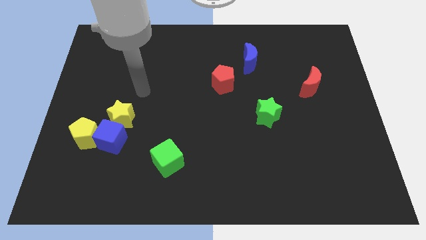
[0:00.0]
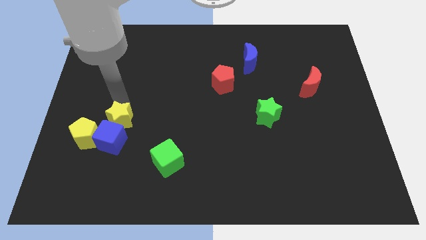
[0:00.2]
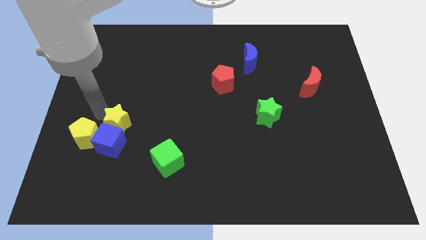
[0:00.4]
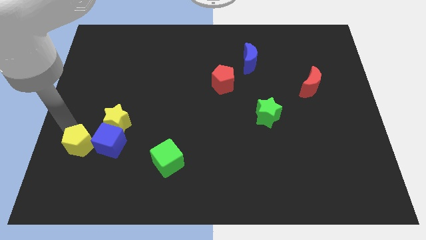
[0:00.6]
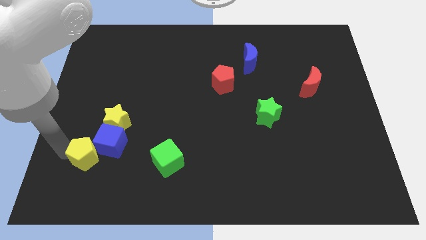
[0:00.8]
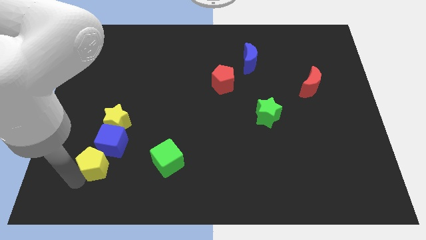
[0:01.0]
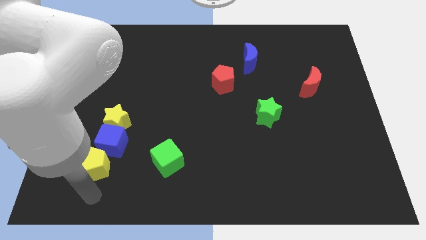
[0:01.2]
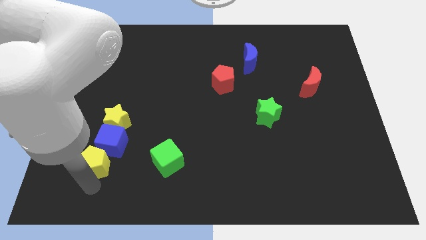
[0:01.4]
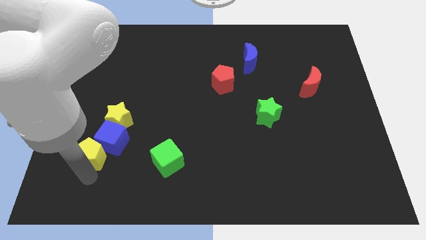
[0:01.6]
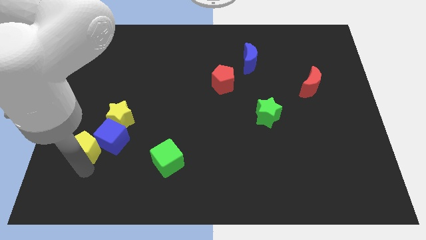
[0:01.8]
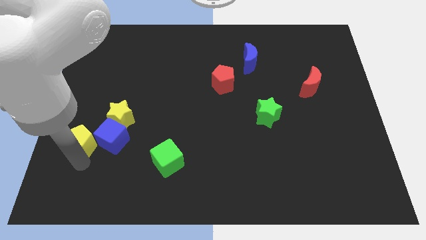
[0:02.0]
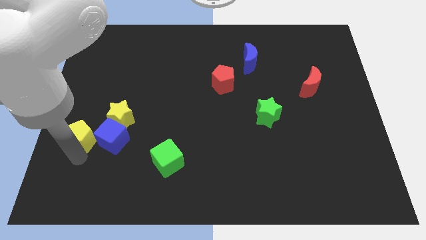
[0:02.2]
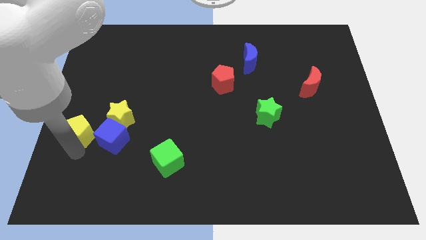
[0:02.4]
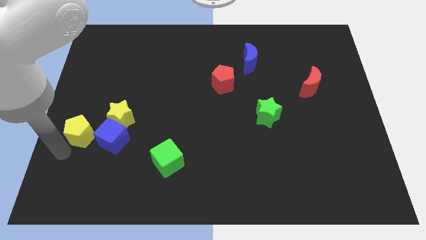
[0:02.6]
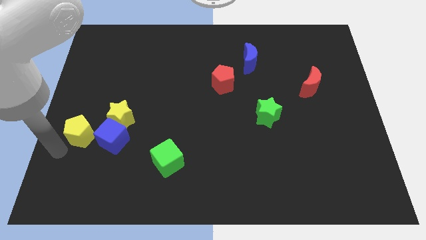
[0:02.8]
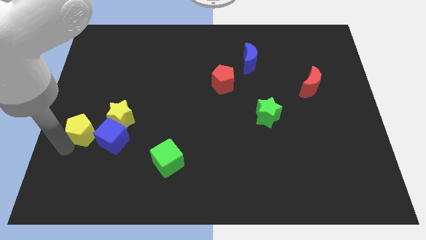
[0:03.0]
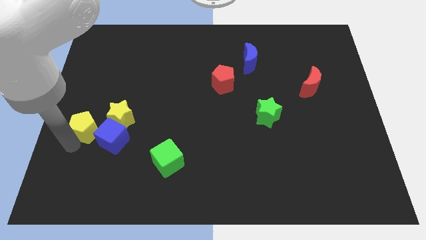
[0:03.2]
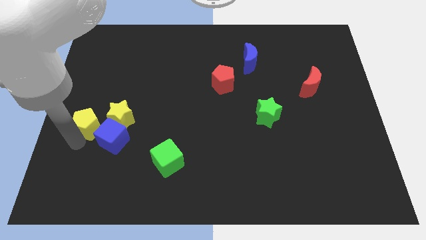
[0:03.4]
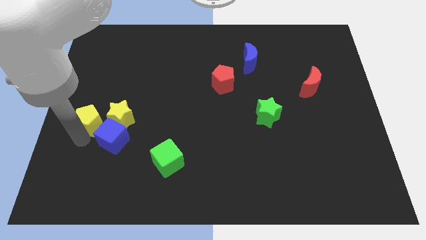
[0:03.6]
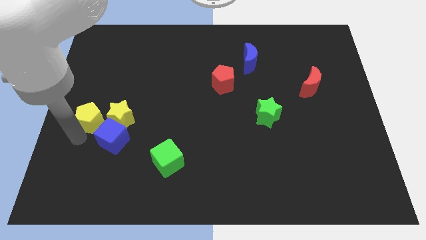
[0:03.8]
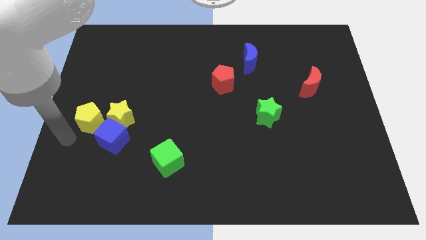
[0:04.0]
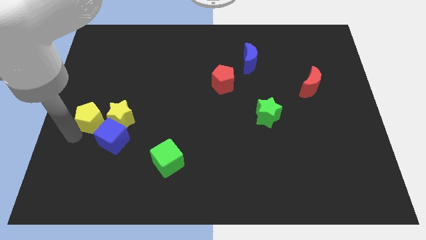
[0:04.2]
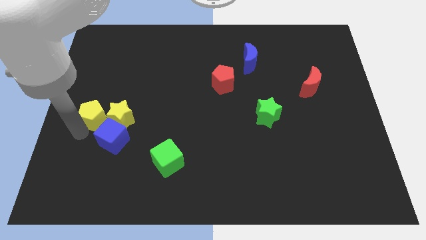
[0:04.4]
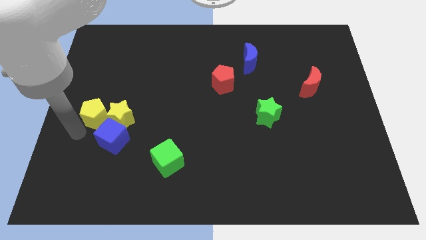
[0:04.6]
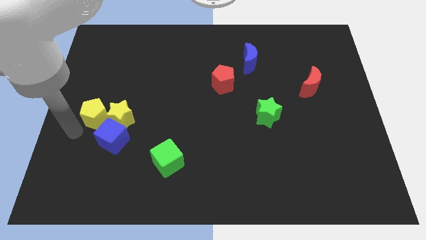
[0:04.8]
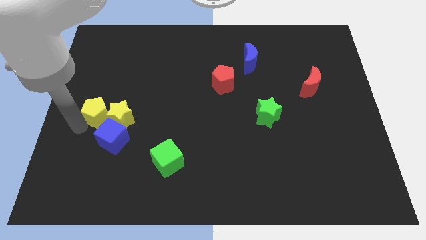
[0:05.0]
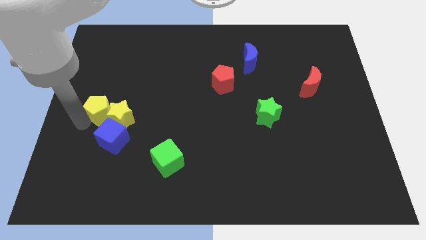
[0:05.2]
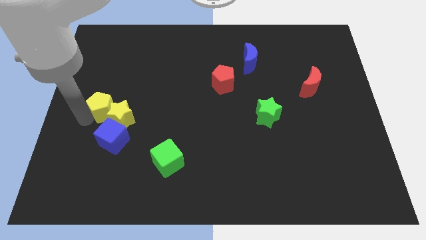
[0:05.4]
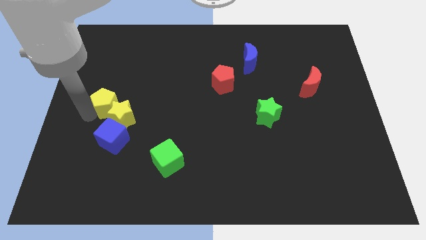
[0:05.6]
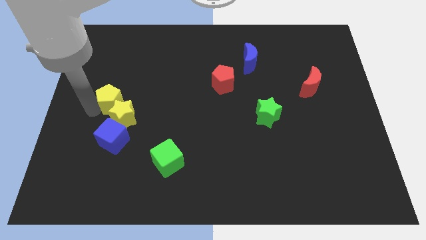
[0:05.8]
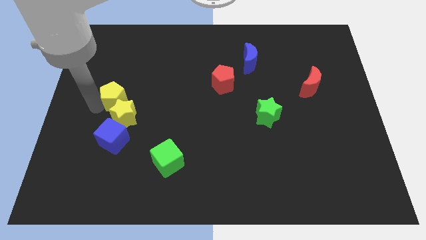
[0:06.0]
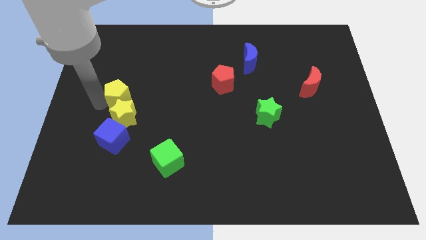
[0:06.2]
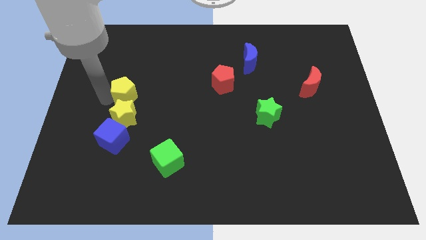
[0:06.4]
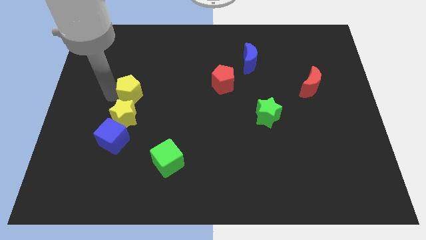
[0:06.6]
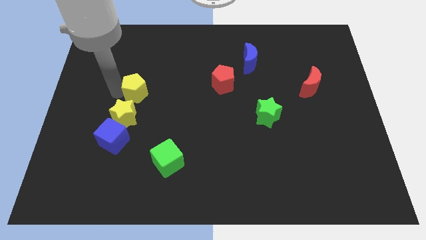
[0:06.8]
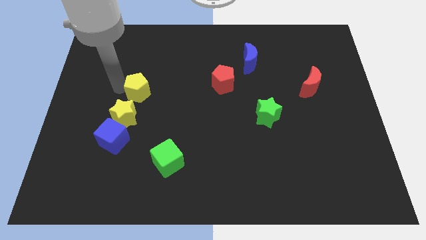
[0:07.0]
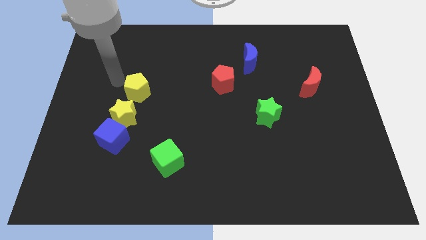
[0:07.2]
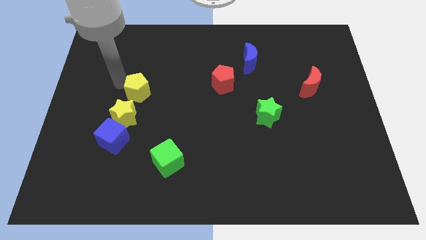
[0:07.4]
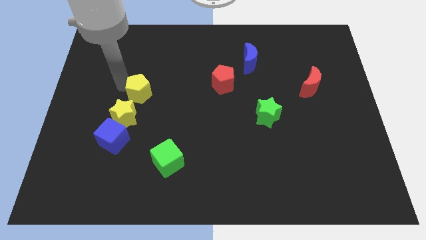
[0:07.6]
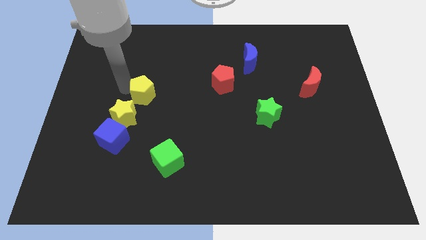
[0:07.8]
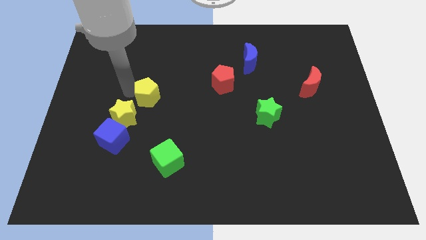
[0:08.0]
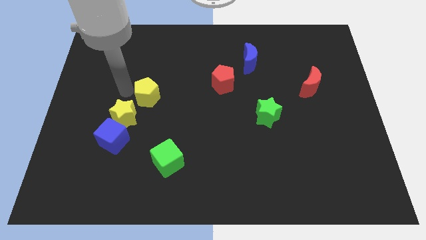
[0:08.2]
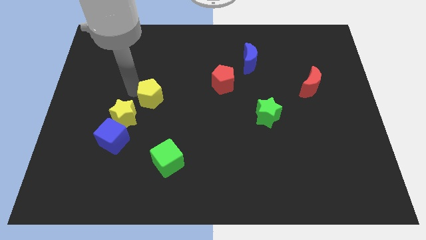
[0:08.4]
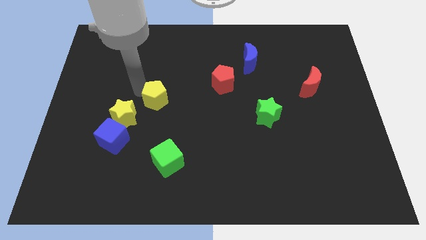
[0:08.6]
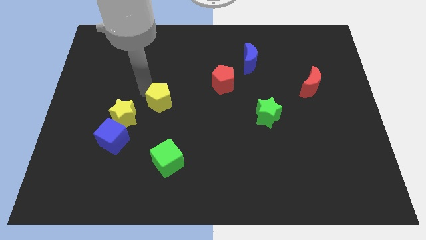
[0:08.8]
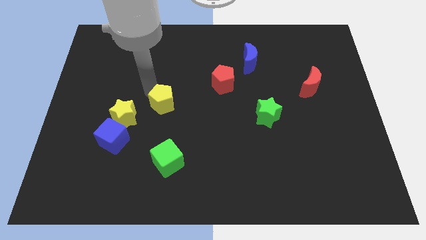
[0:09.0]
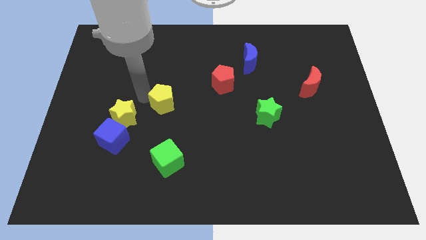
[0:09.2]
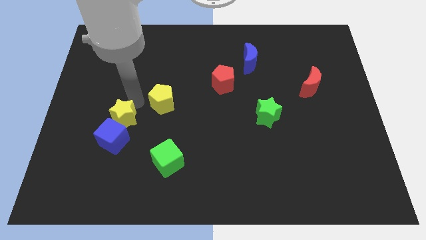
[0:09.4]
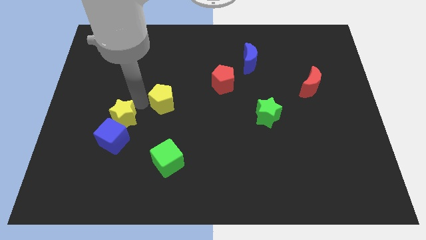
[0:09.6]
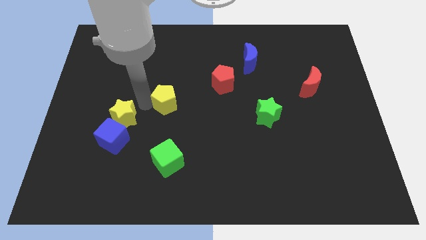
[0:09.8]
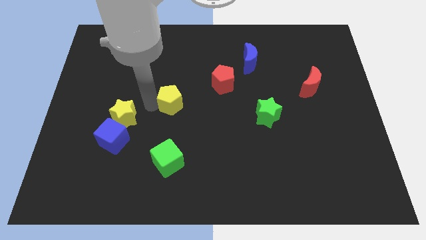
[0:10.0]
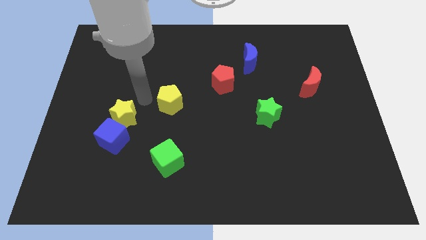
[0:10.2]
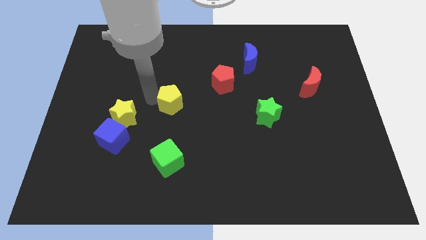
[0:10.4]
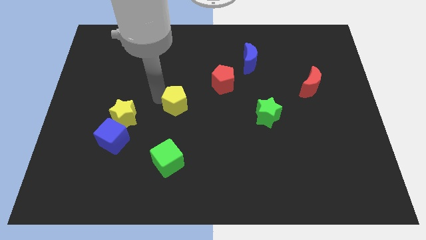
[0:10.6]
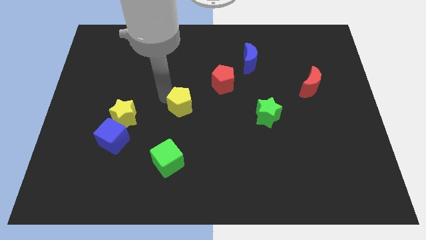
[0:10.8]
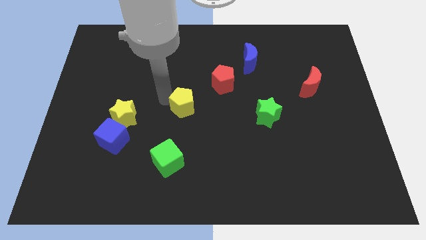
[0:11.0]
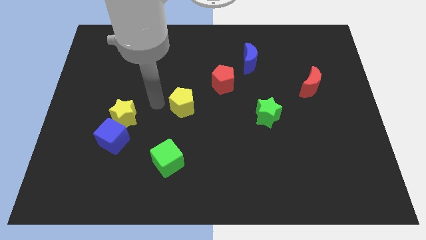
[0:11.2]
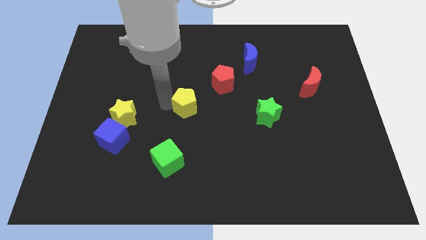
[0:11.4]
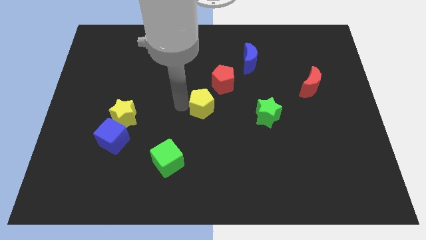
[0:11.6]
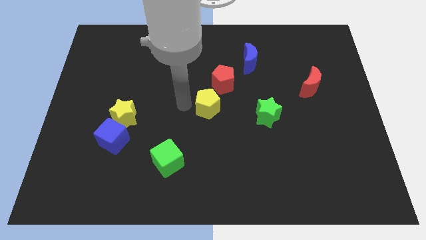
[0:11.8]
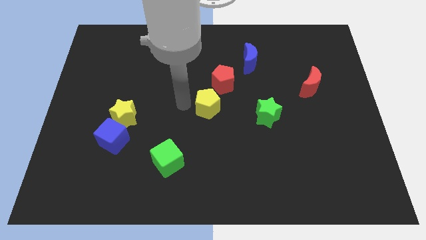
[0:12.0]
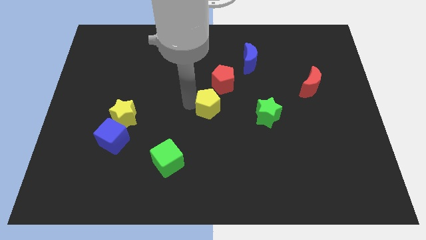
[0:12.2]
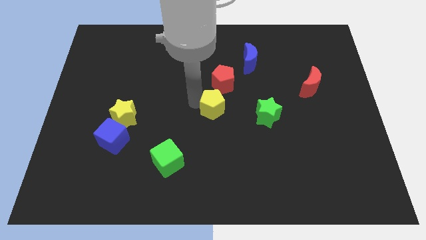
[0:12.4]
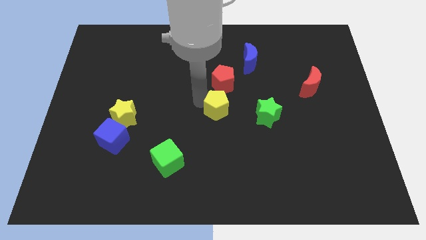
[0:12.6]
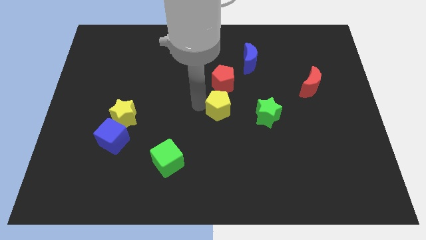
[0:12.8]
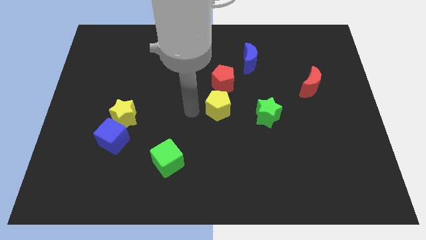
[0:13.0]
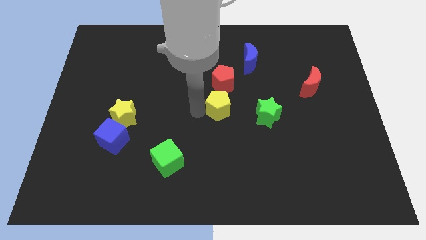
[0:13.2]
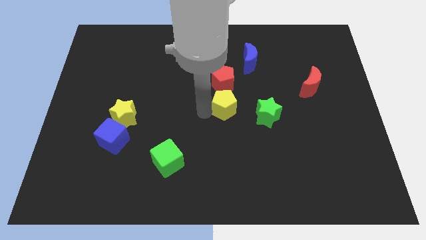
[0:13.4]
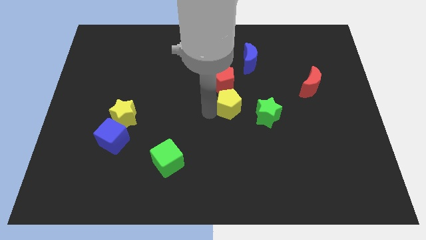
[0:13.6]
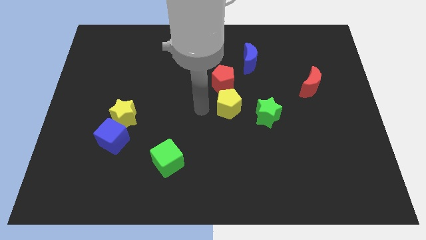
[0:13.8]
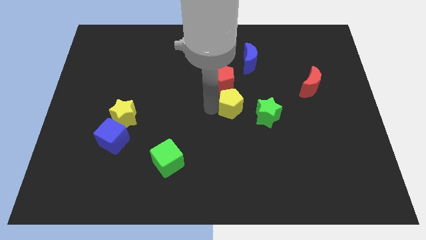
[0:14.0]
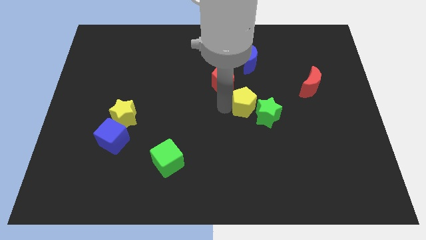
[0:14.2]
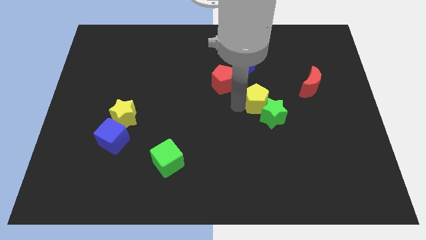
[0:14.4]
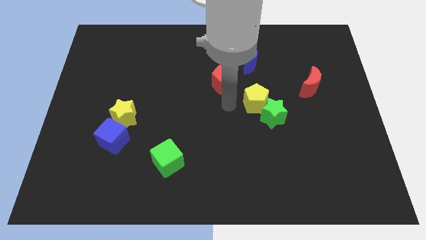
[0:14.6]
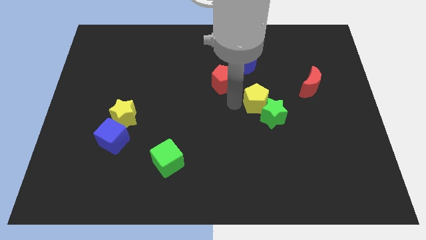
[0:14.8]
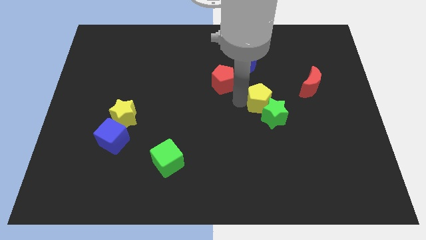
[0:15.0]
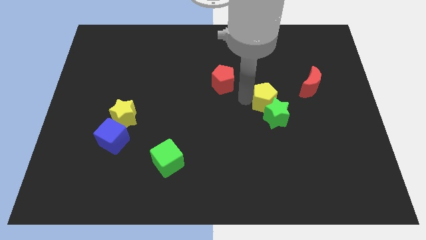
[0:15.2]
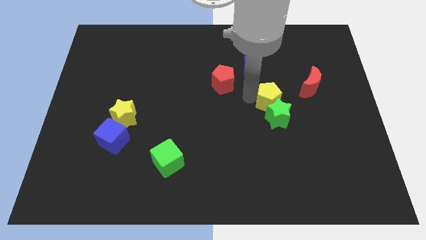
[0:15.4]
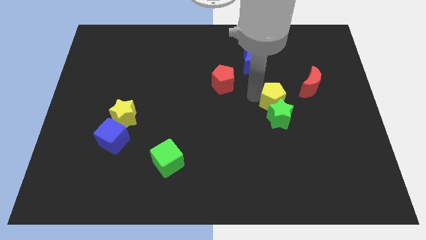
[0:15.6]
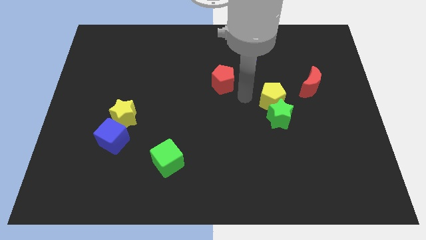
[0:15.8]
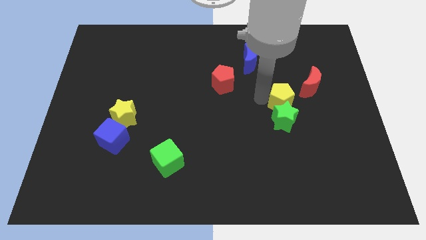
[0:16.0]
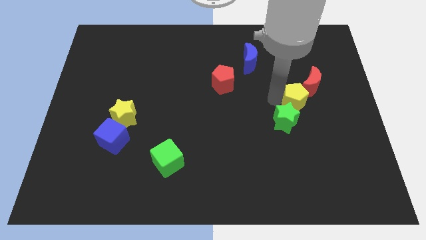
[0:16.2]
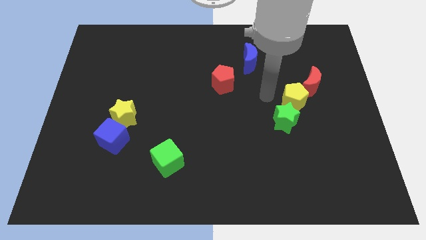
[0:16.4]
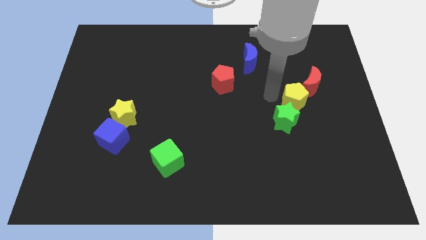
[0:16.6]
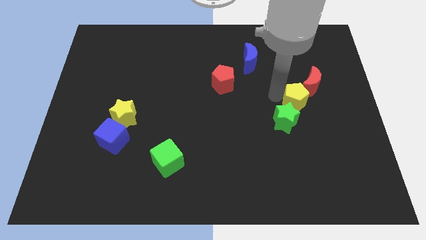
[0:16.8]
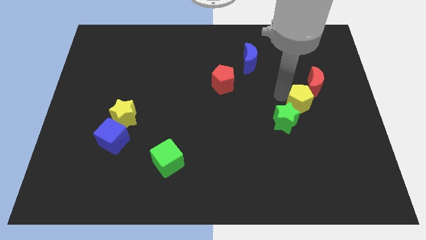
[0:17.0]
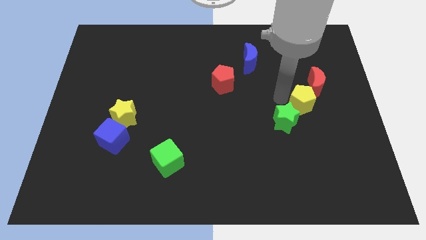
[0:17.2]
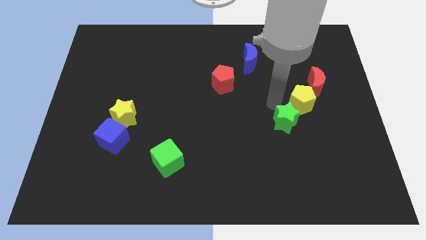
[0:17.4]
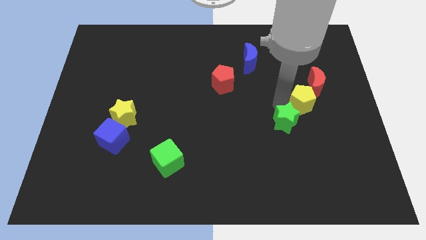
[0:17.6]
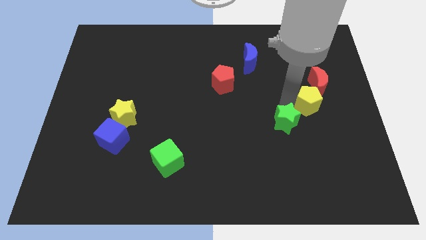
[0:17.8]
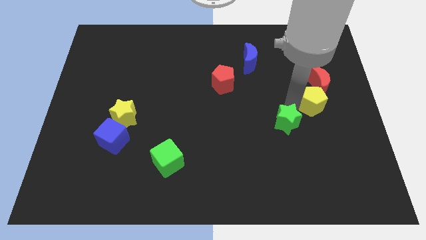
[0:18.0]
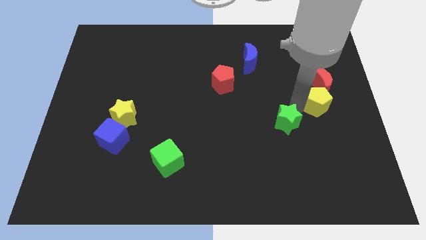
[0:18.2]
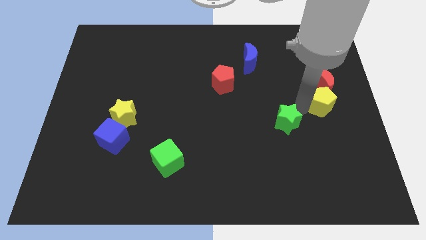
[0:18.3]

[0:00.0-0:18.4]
move the yellow pentagon to the right side
